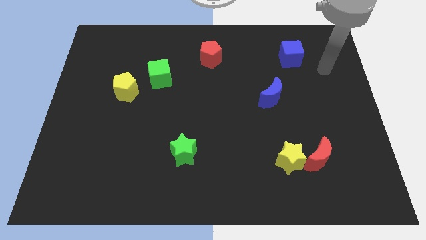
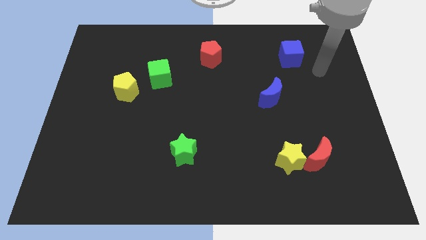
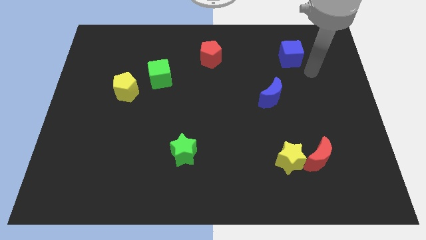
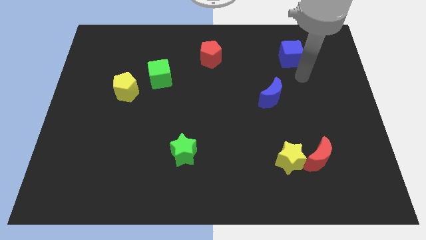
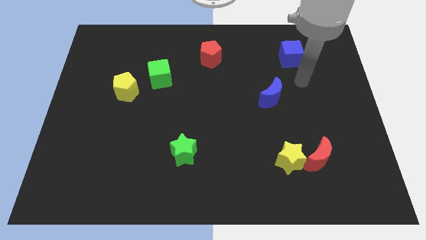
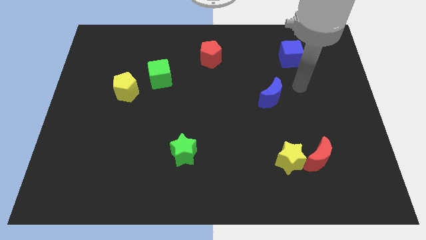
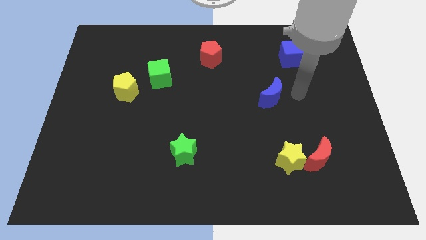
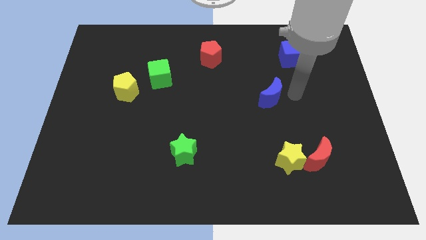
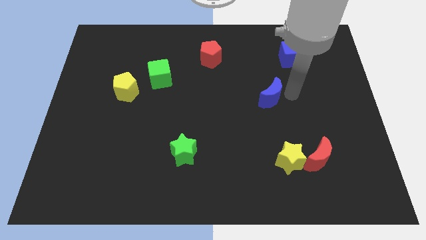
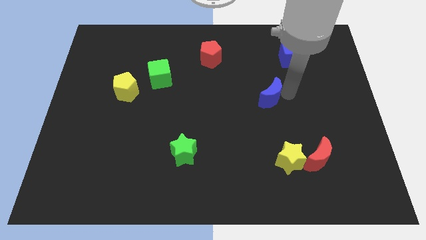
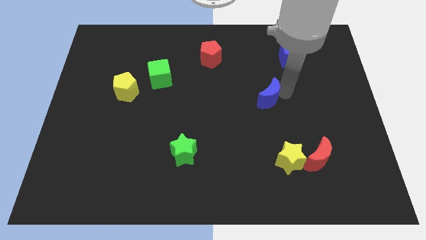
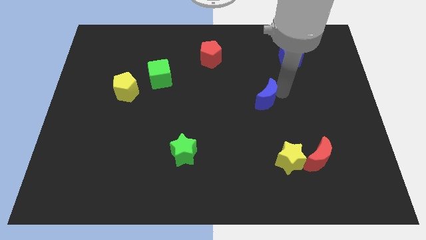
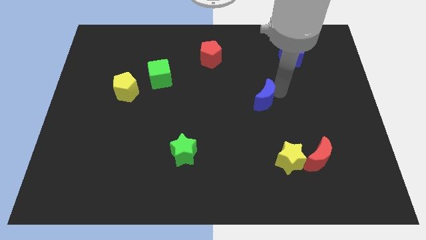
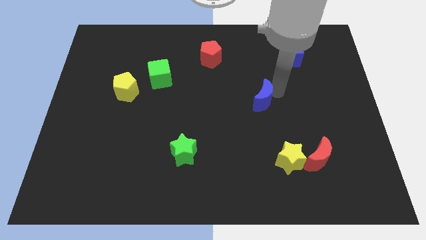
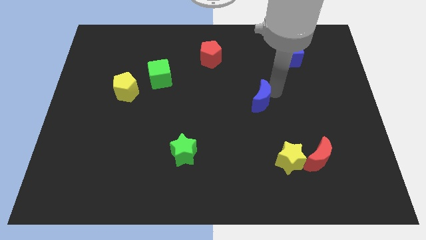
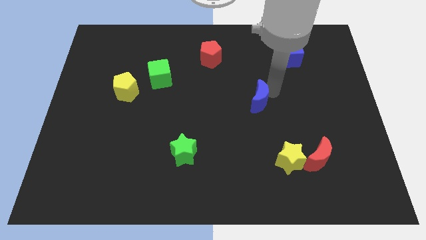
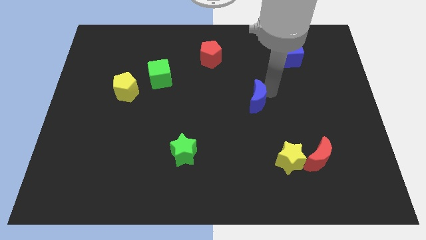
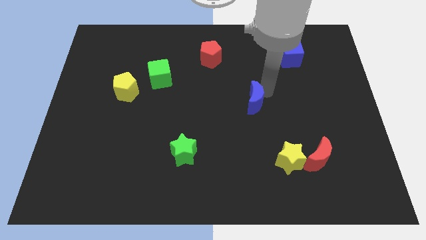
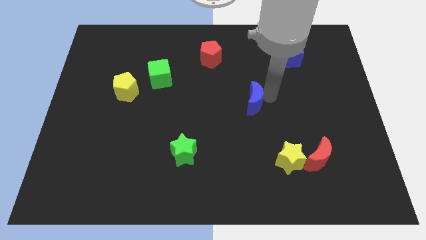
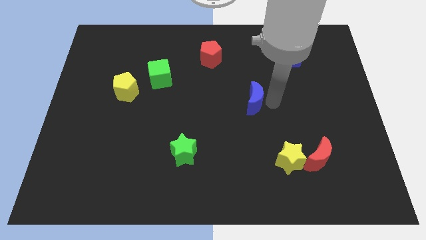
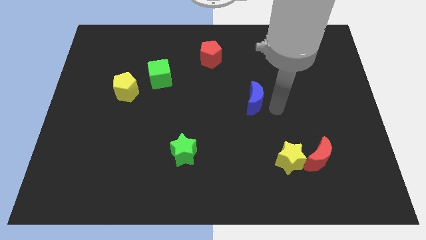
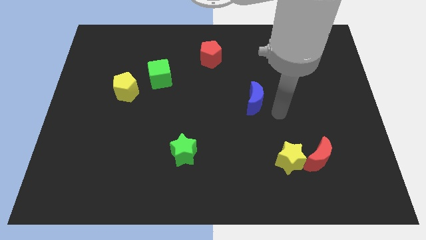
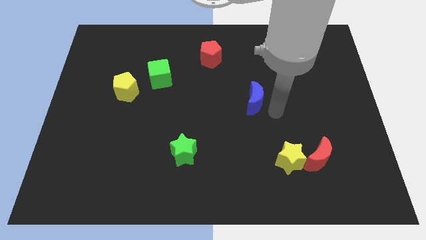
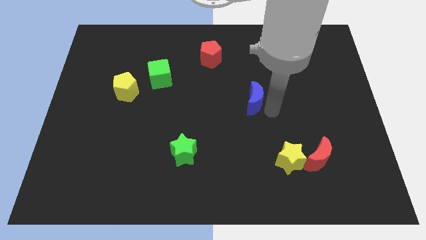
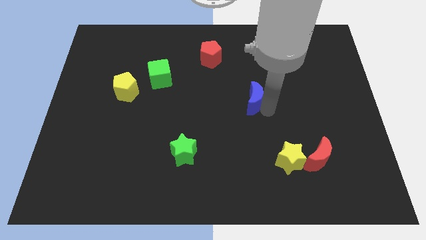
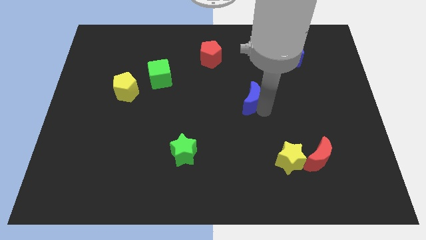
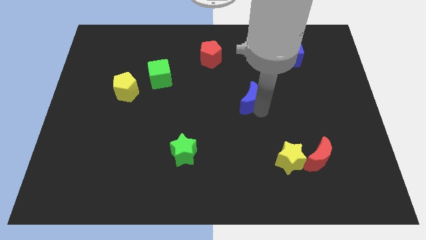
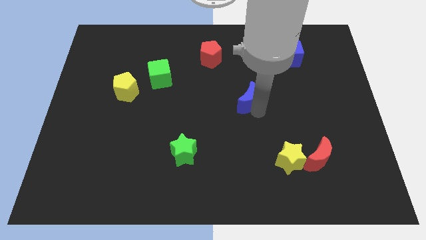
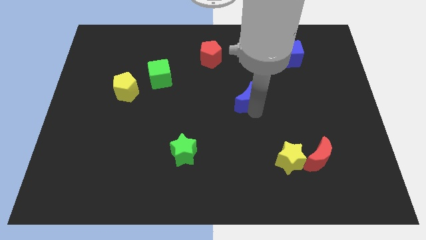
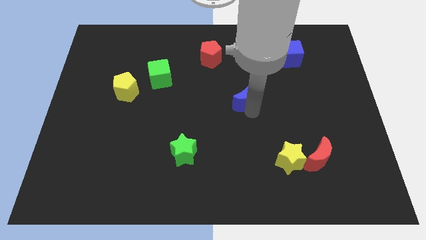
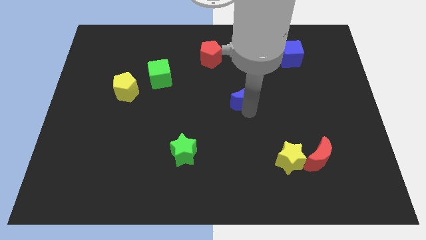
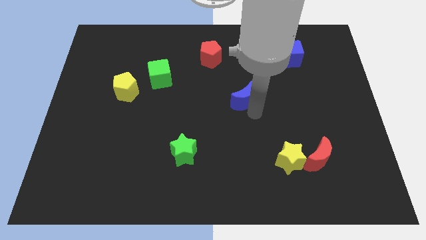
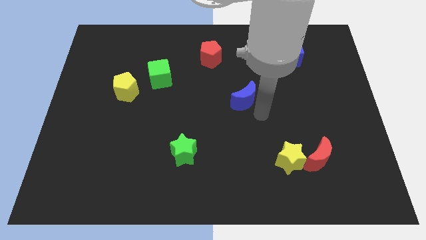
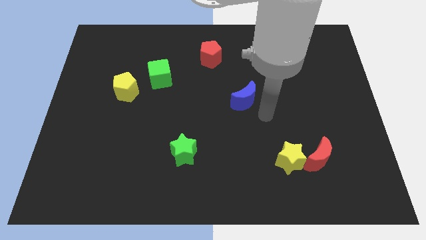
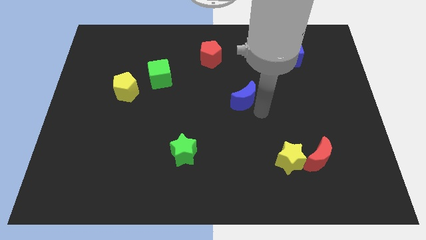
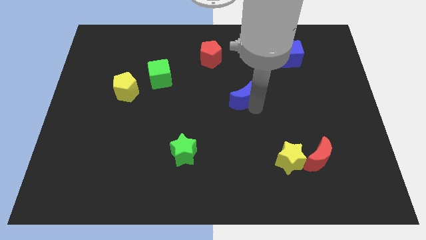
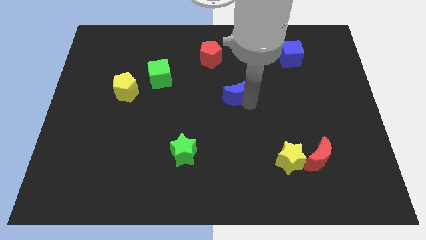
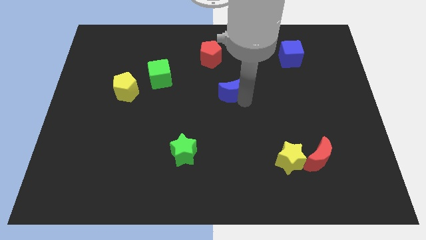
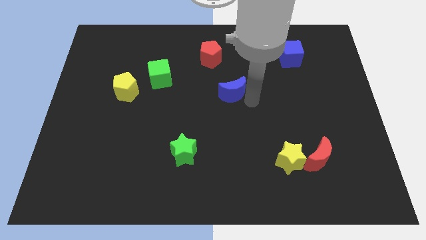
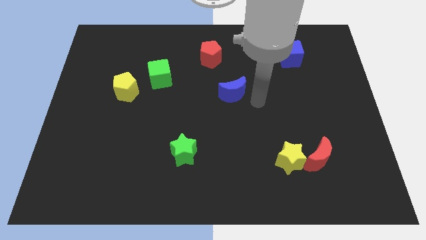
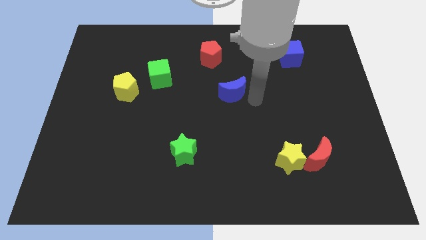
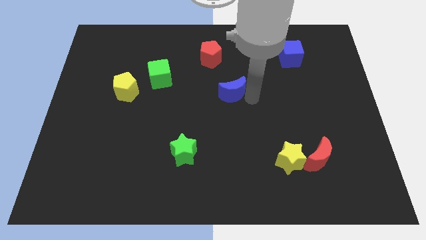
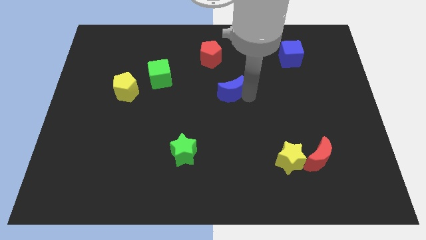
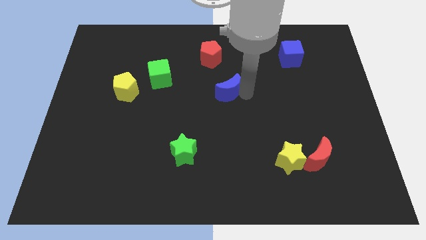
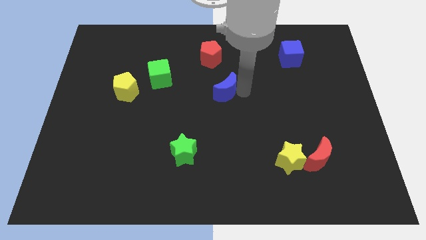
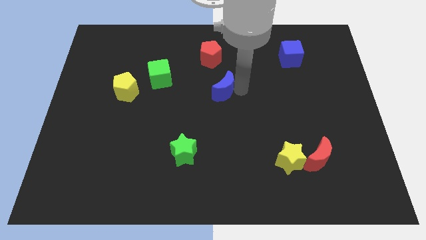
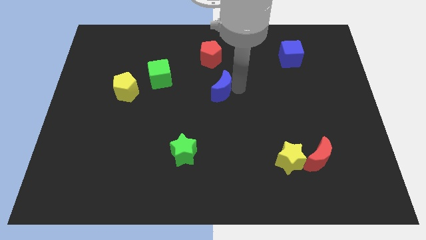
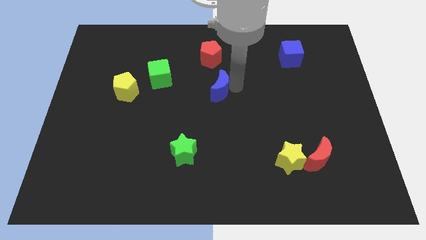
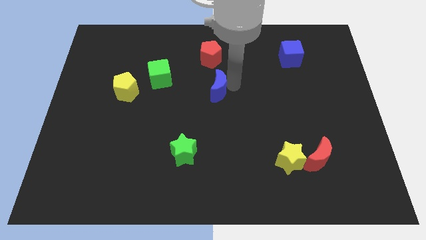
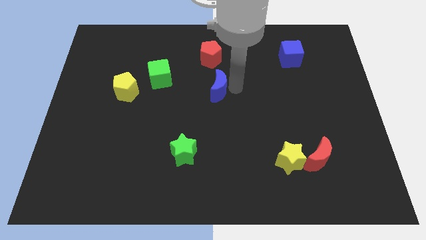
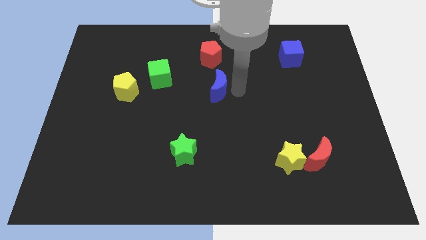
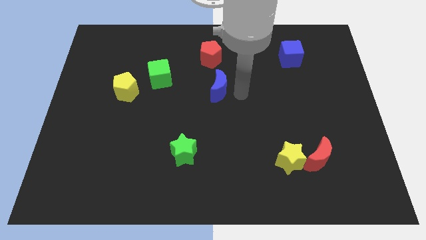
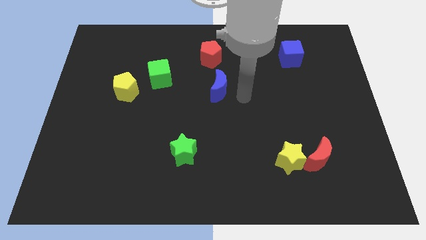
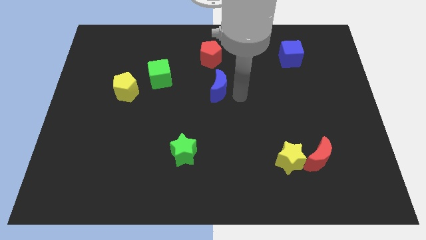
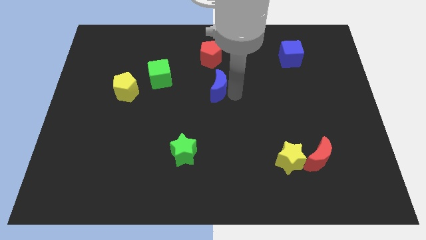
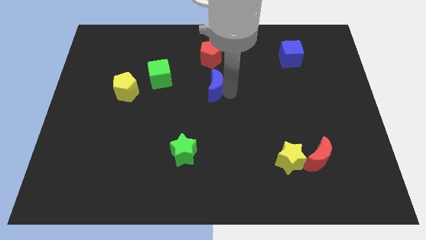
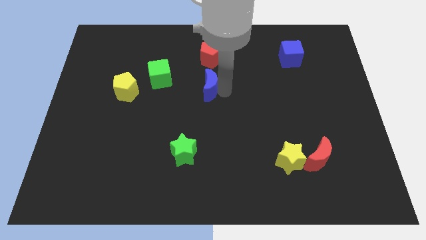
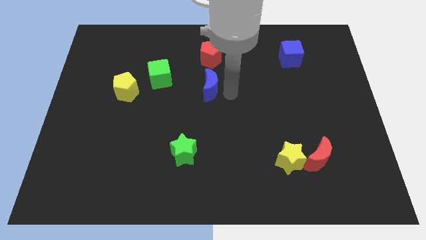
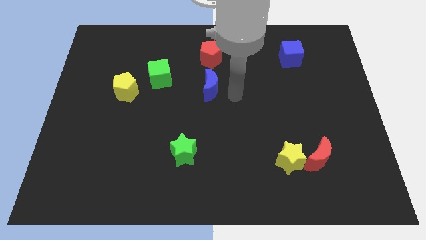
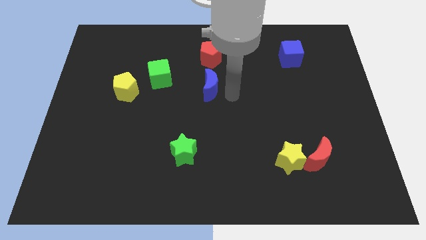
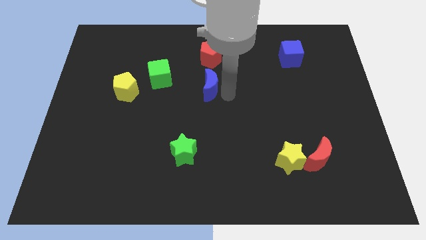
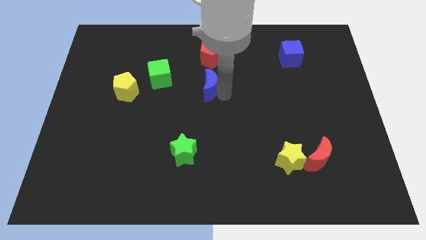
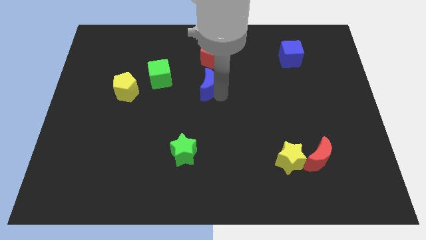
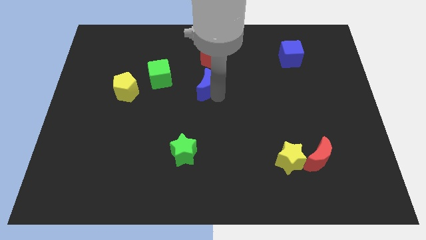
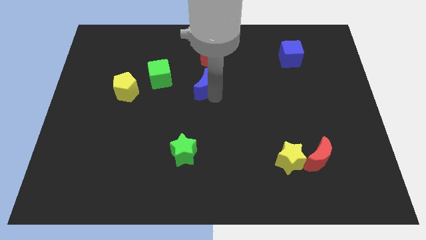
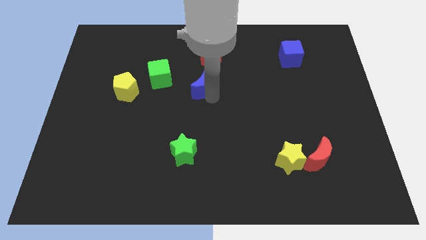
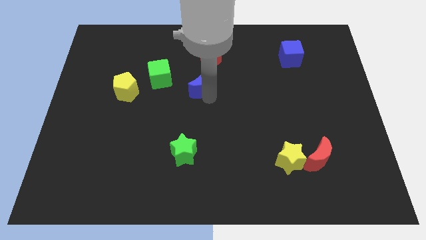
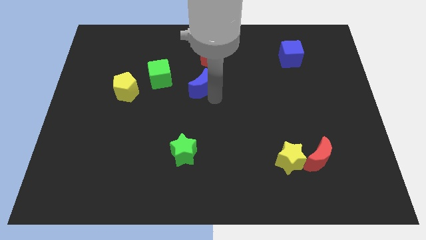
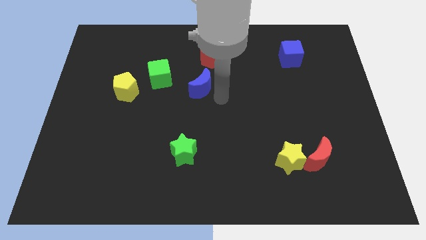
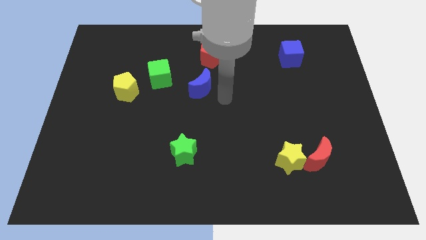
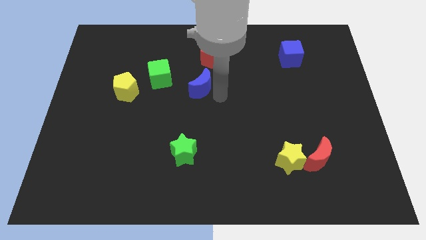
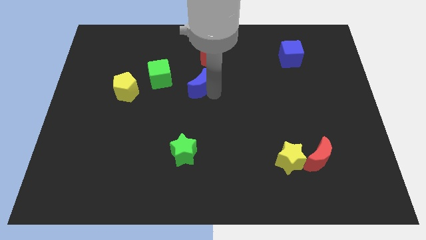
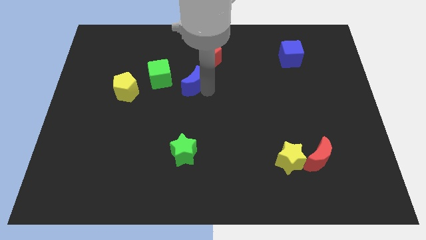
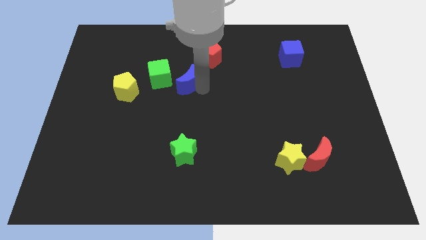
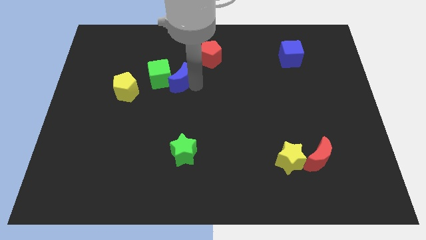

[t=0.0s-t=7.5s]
move the blue moon to the green cube

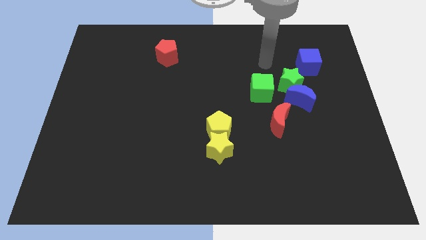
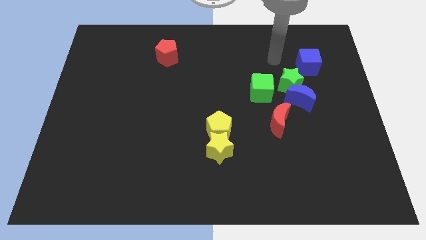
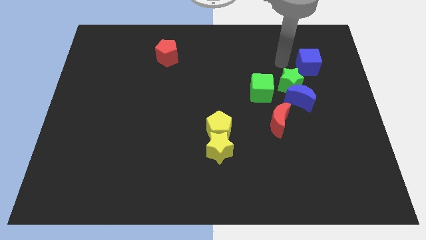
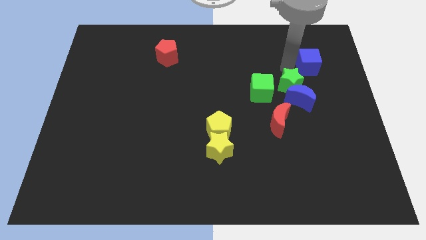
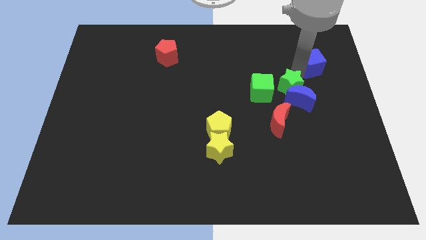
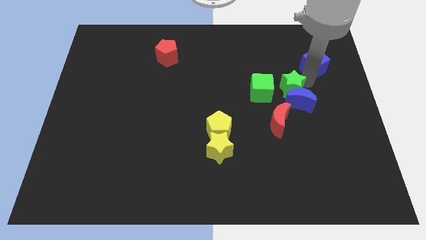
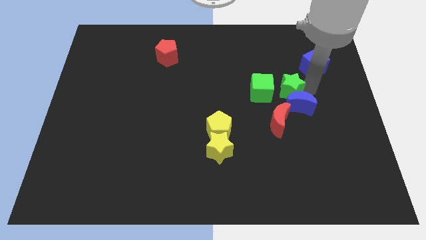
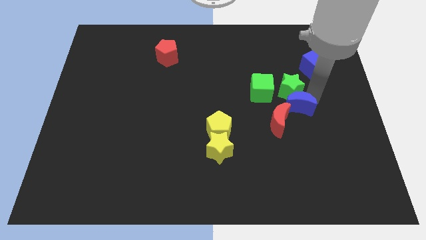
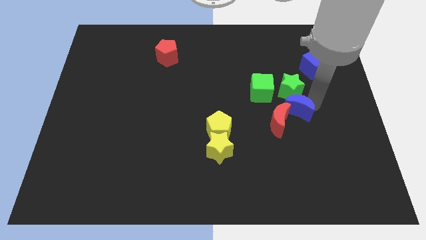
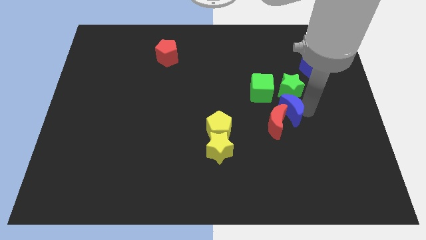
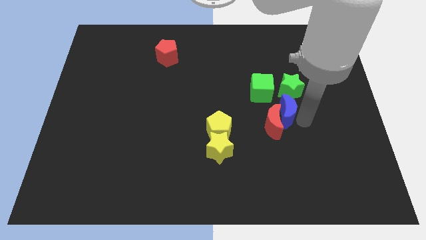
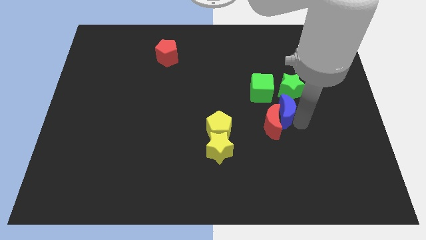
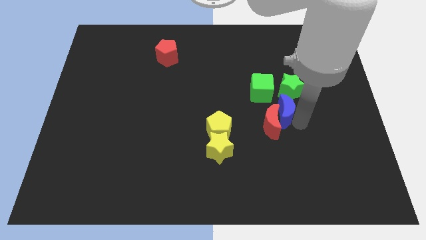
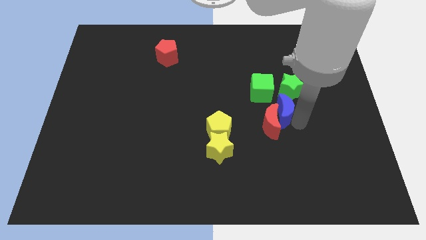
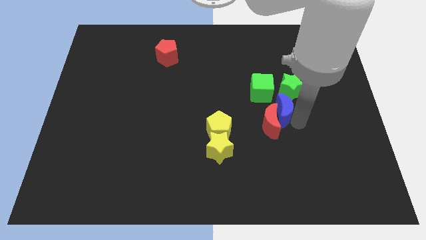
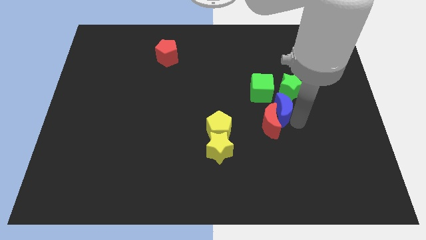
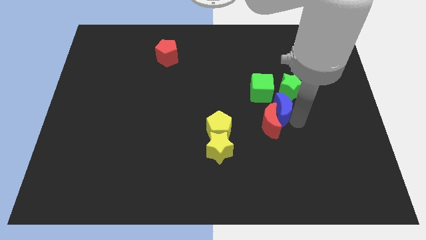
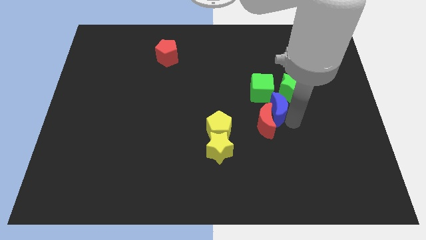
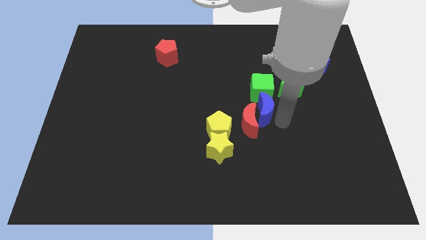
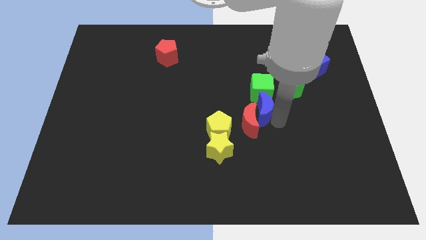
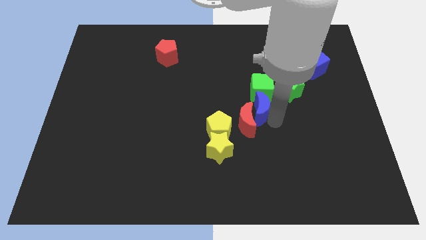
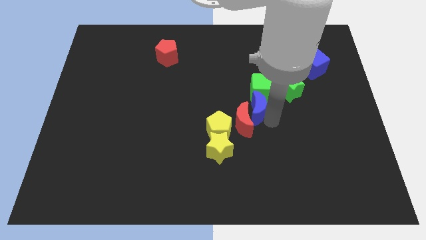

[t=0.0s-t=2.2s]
slide the red moon next to the yellow pentagon
